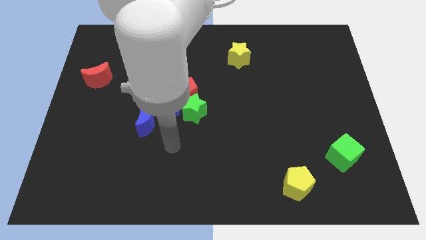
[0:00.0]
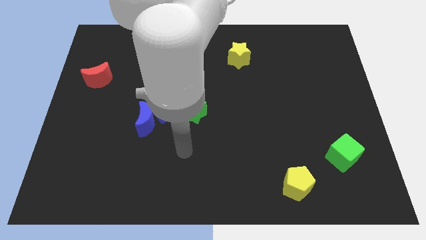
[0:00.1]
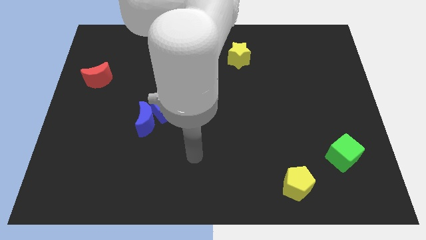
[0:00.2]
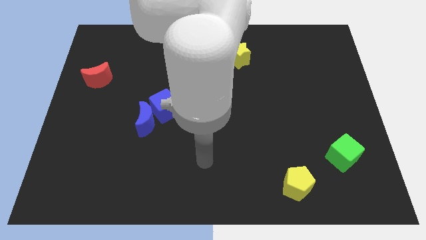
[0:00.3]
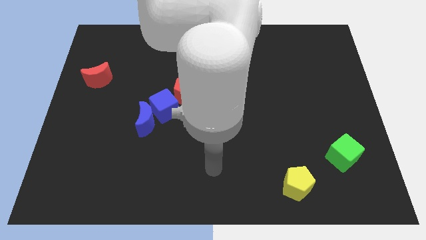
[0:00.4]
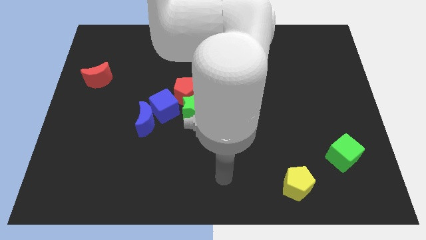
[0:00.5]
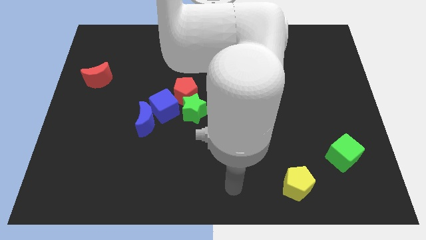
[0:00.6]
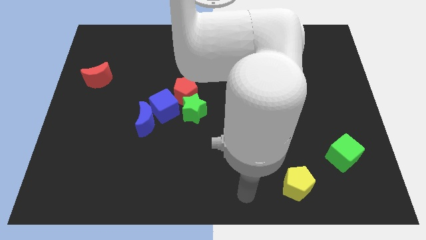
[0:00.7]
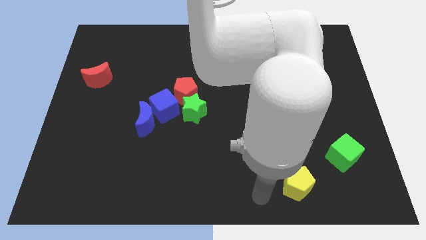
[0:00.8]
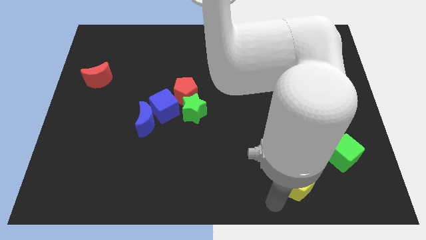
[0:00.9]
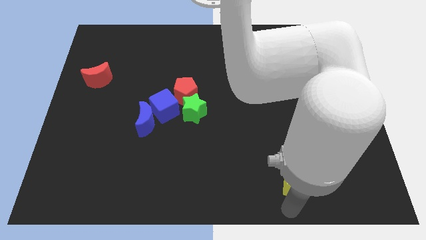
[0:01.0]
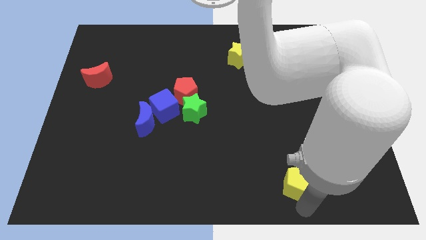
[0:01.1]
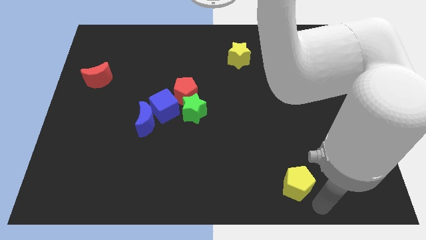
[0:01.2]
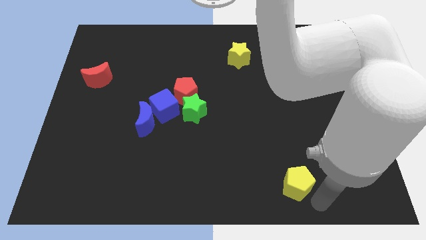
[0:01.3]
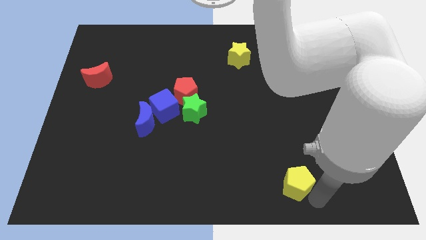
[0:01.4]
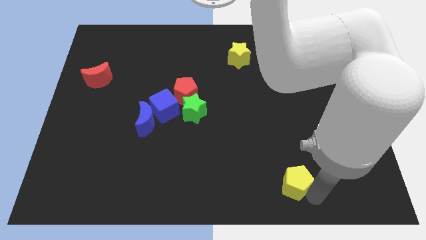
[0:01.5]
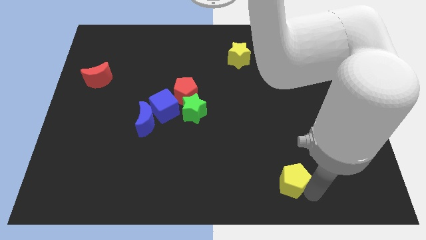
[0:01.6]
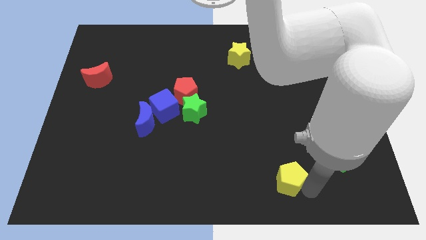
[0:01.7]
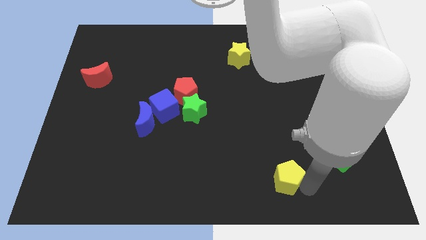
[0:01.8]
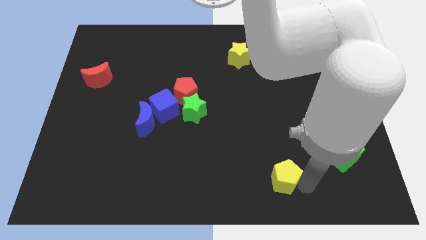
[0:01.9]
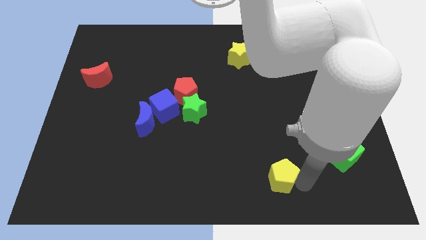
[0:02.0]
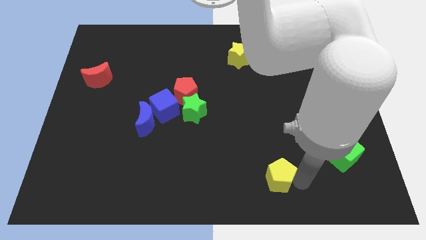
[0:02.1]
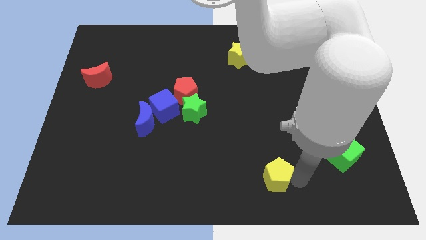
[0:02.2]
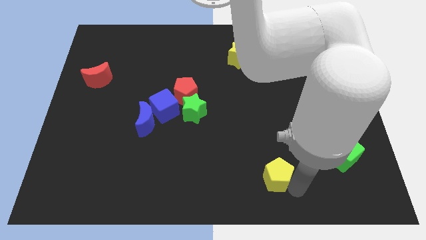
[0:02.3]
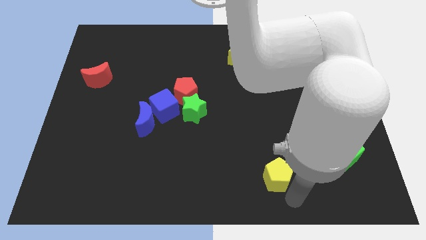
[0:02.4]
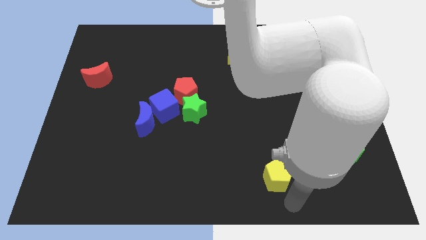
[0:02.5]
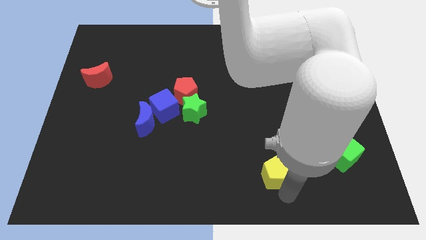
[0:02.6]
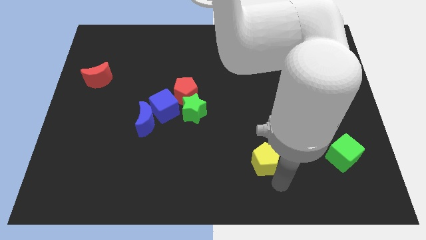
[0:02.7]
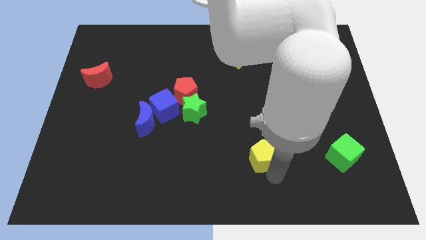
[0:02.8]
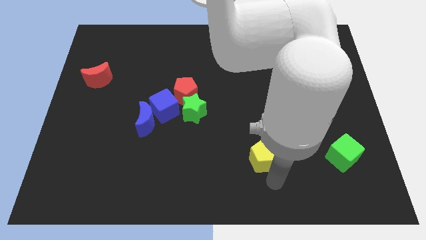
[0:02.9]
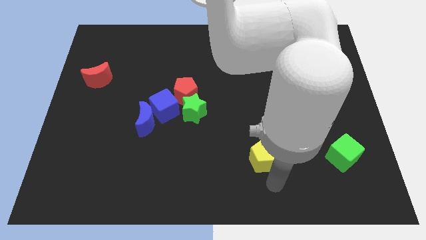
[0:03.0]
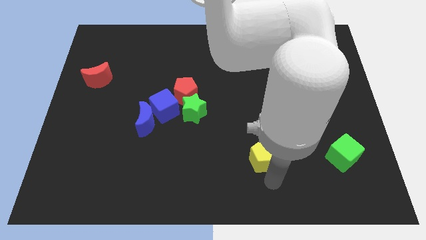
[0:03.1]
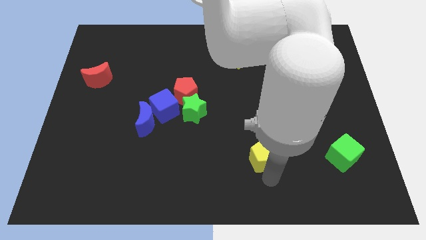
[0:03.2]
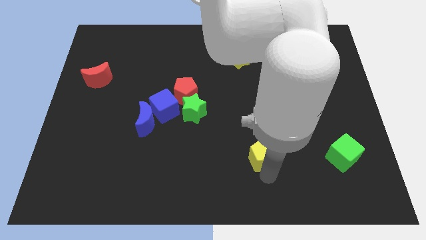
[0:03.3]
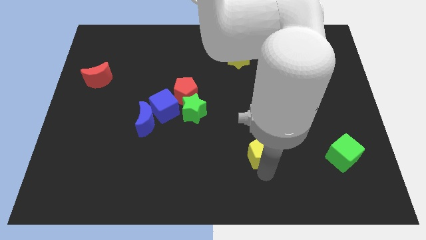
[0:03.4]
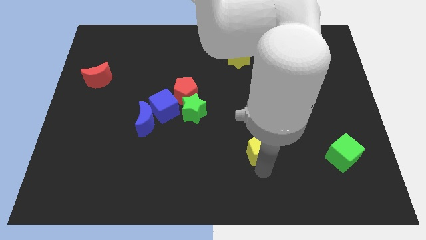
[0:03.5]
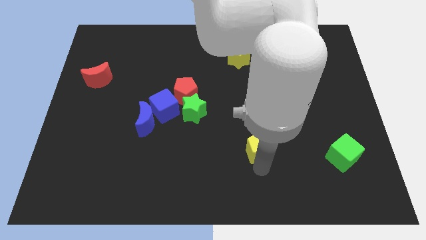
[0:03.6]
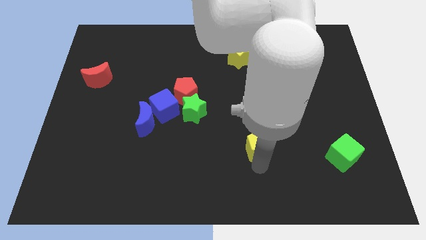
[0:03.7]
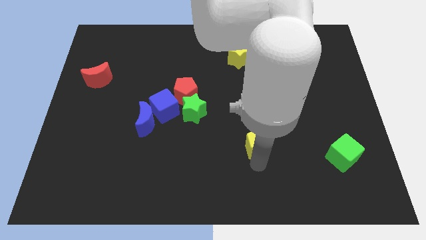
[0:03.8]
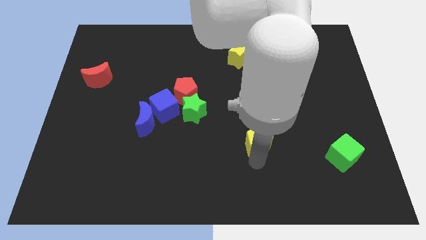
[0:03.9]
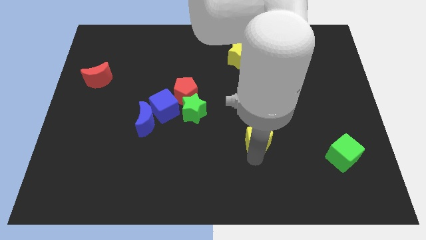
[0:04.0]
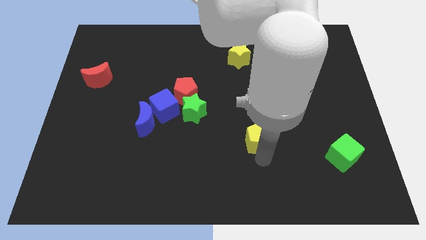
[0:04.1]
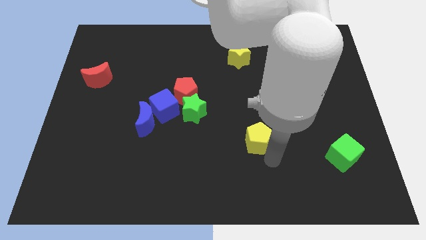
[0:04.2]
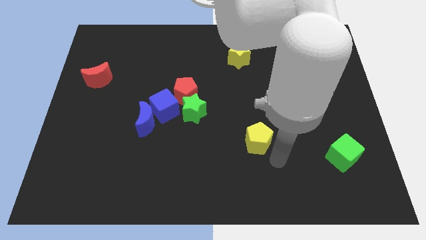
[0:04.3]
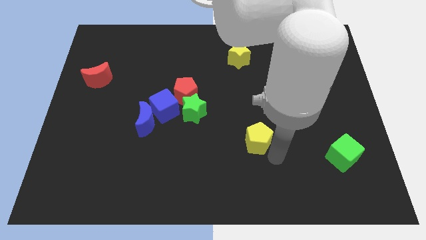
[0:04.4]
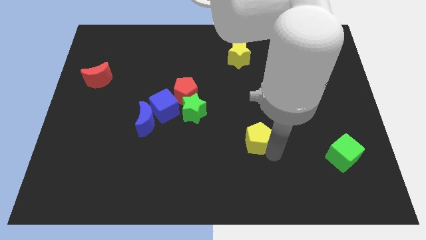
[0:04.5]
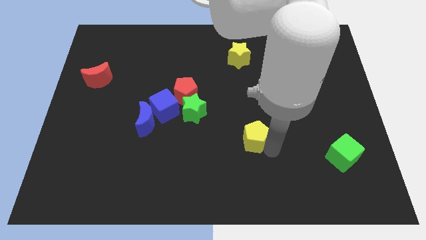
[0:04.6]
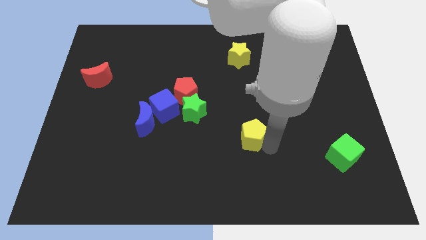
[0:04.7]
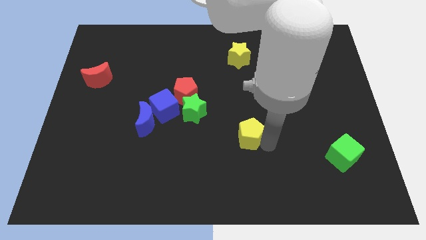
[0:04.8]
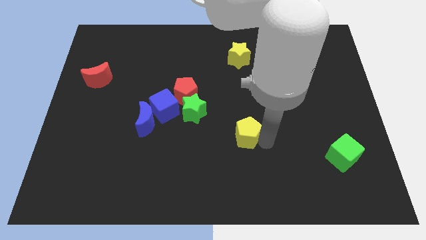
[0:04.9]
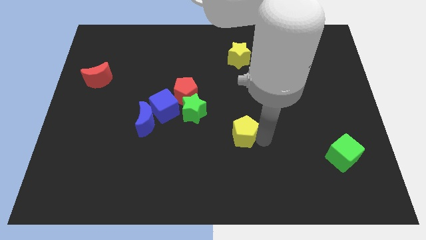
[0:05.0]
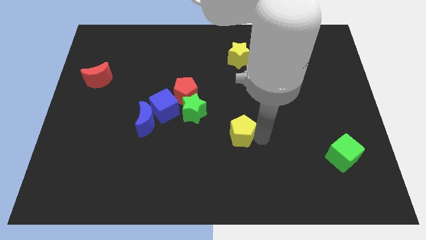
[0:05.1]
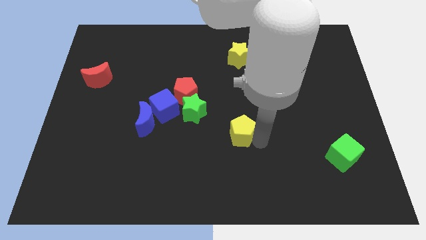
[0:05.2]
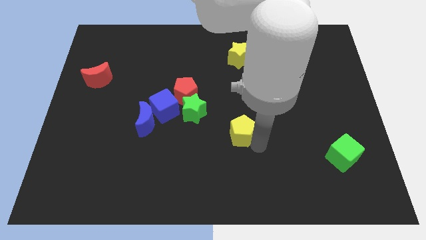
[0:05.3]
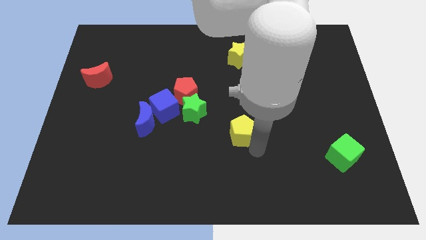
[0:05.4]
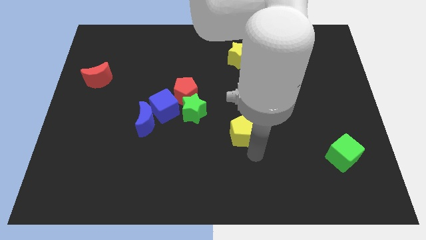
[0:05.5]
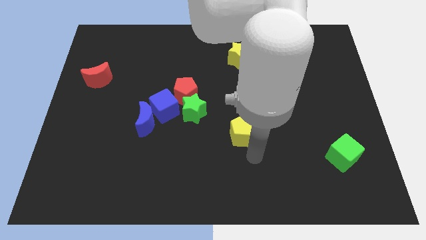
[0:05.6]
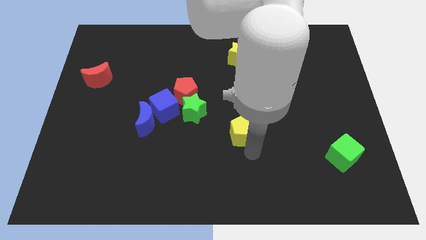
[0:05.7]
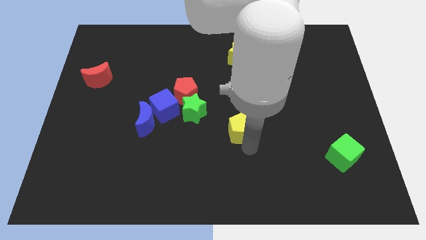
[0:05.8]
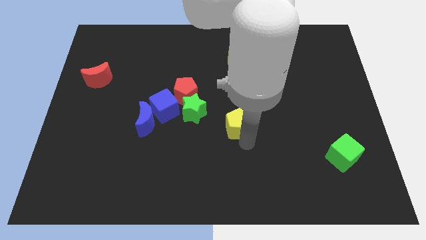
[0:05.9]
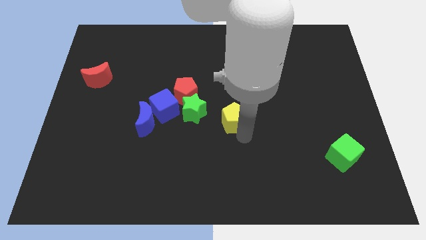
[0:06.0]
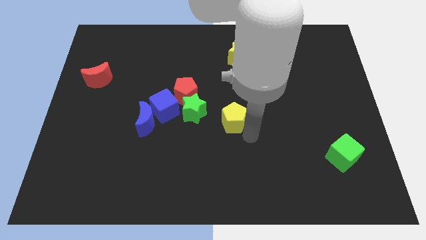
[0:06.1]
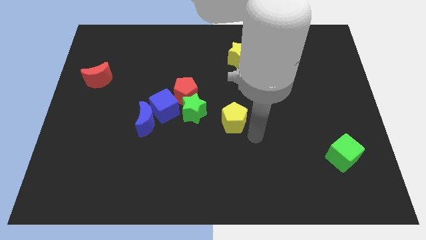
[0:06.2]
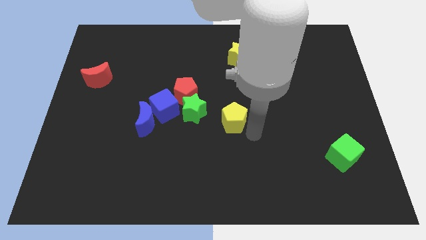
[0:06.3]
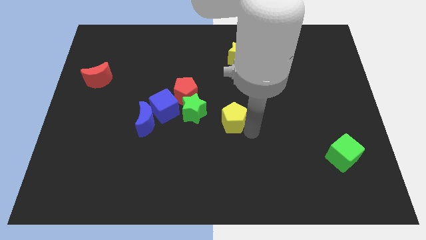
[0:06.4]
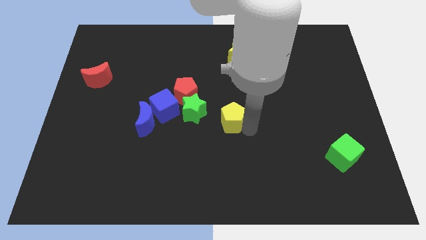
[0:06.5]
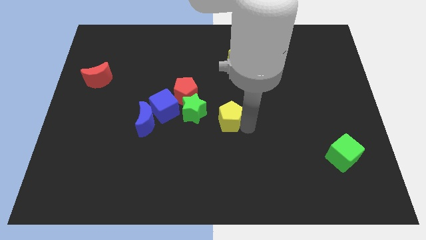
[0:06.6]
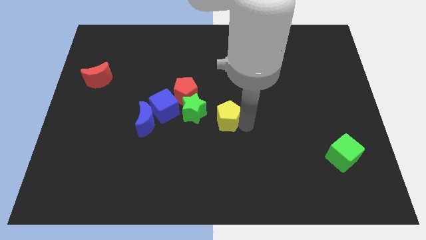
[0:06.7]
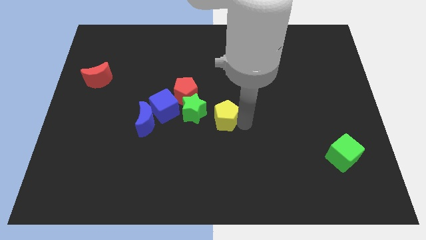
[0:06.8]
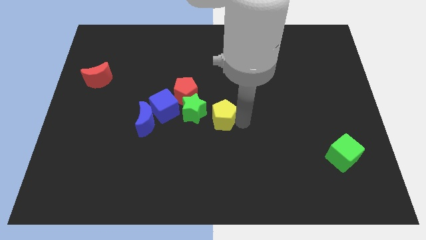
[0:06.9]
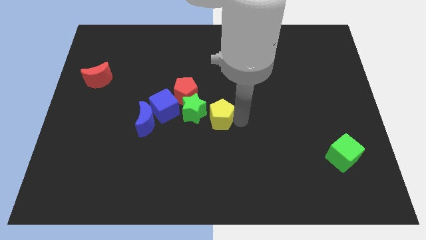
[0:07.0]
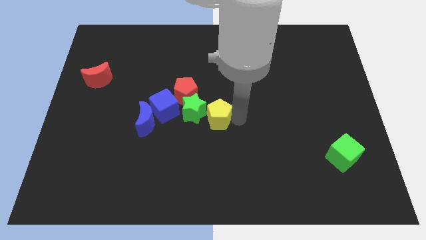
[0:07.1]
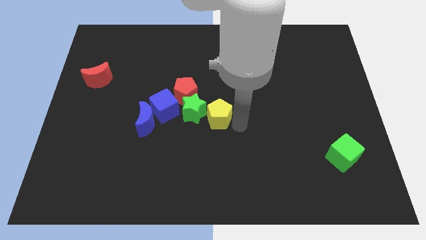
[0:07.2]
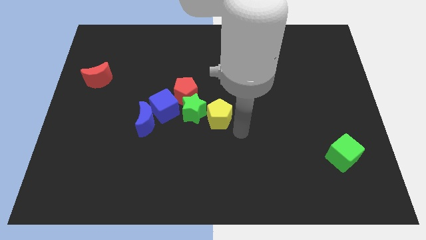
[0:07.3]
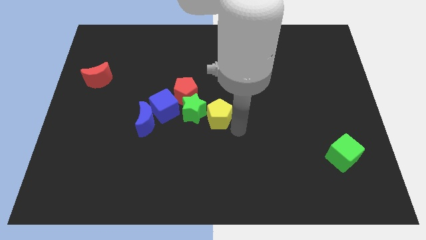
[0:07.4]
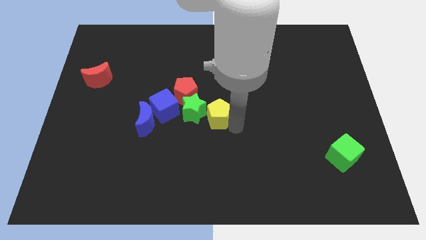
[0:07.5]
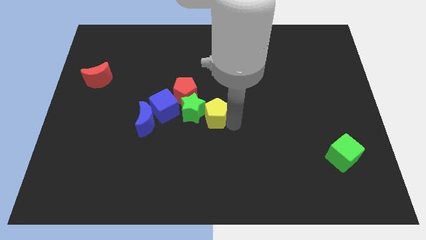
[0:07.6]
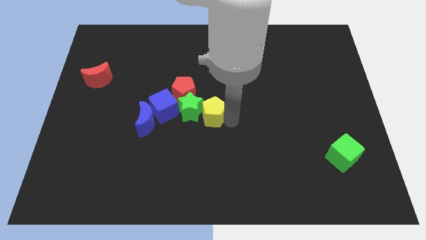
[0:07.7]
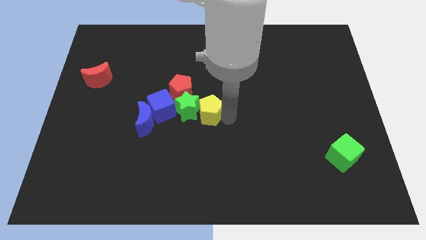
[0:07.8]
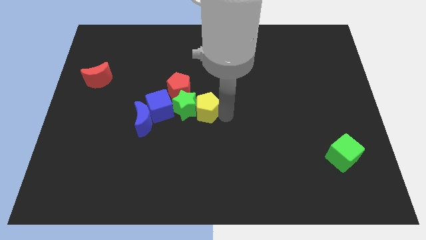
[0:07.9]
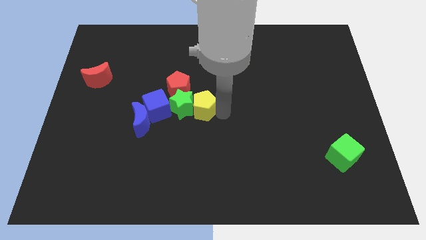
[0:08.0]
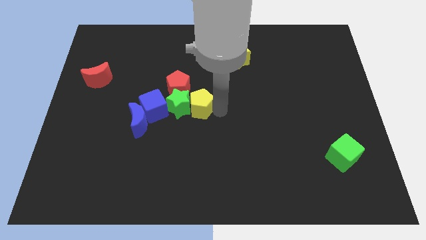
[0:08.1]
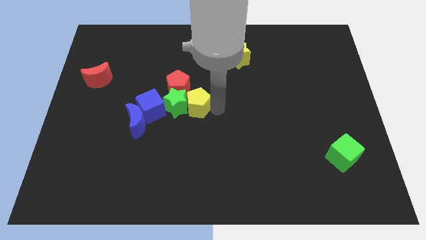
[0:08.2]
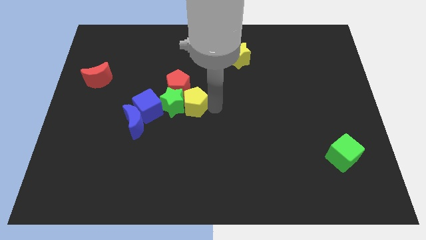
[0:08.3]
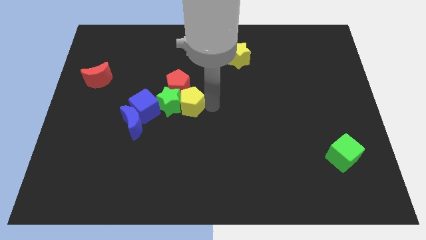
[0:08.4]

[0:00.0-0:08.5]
put the yellow pentagon close to the red pentagon
